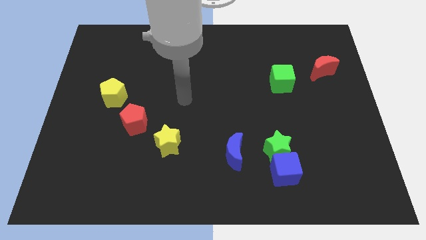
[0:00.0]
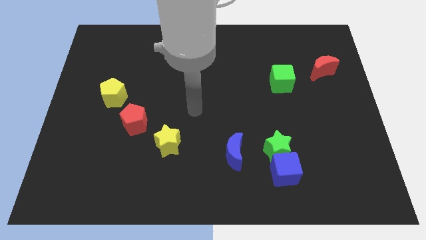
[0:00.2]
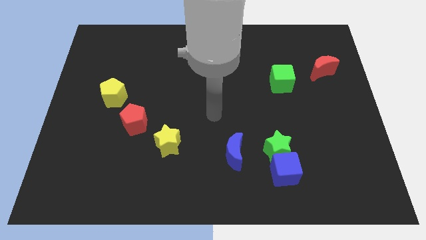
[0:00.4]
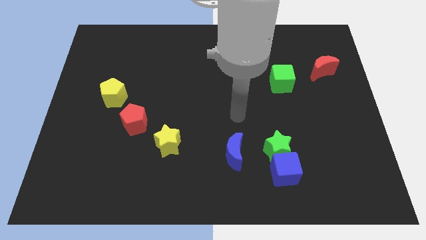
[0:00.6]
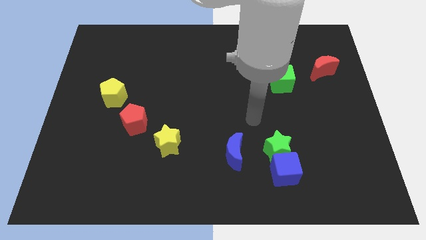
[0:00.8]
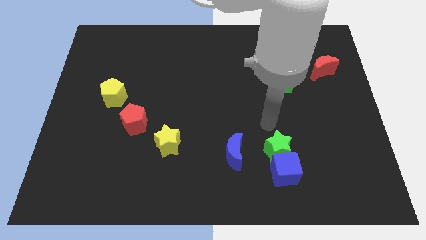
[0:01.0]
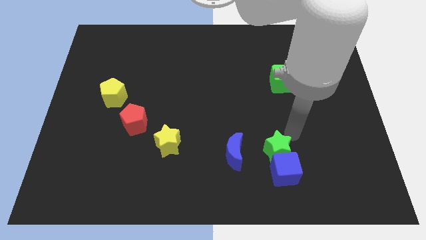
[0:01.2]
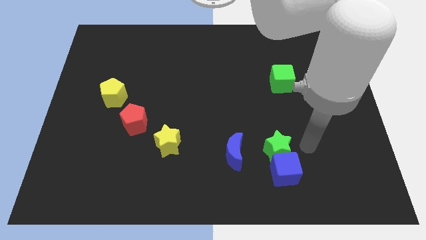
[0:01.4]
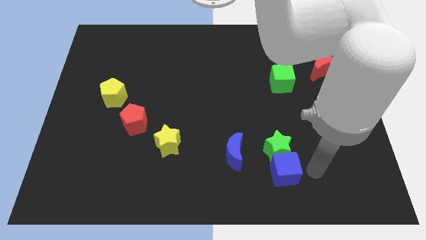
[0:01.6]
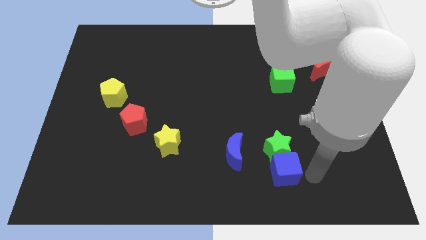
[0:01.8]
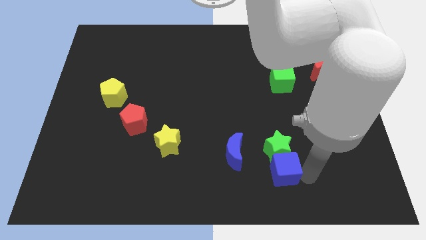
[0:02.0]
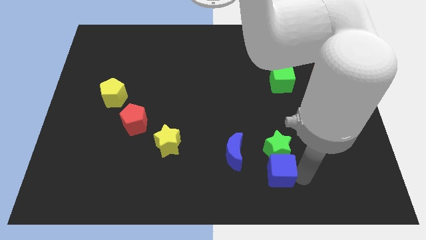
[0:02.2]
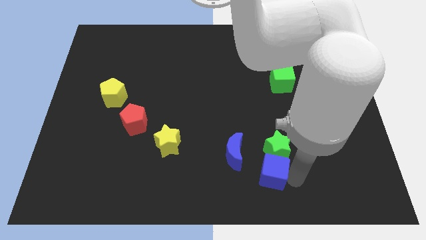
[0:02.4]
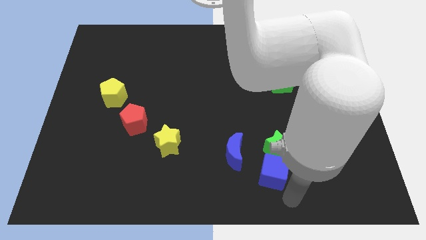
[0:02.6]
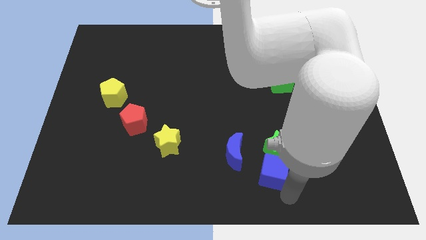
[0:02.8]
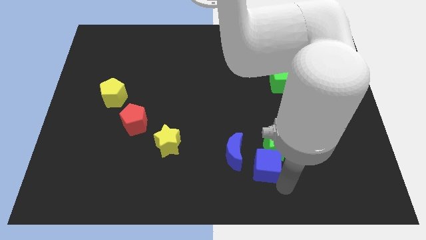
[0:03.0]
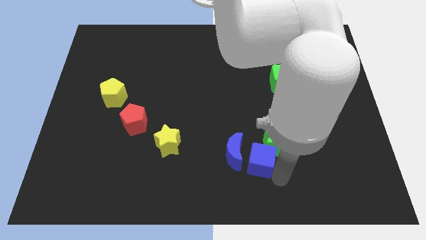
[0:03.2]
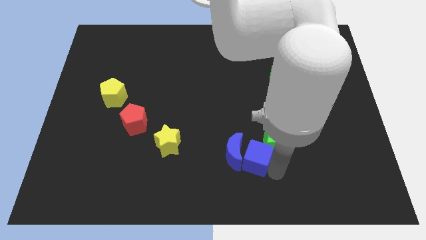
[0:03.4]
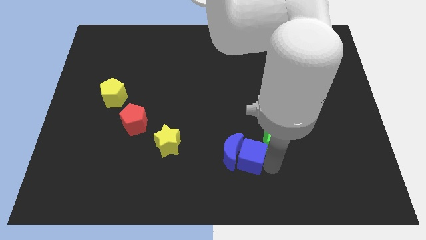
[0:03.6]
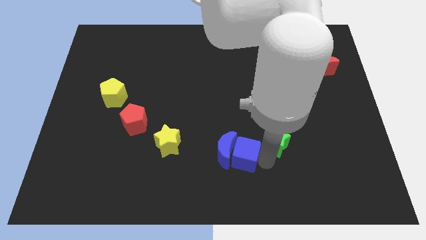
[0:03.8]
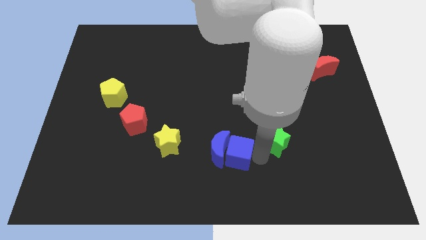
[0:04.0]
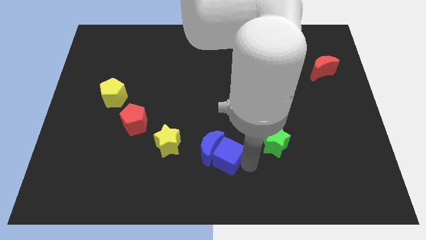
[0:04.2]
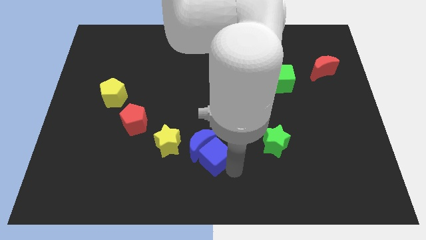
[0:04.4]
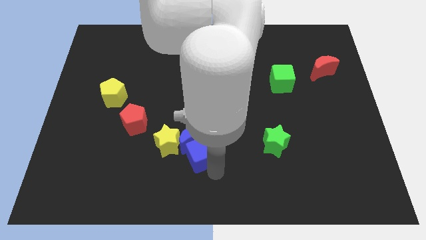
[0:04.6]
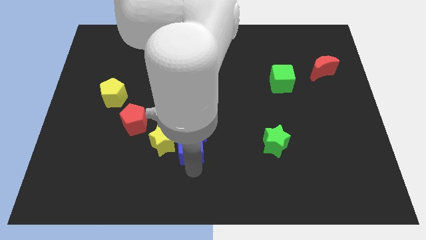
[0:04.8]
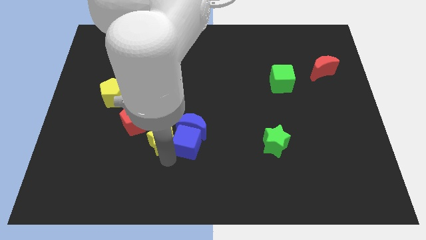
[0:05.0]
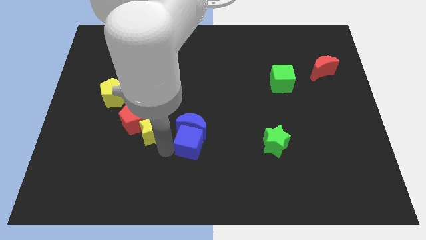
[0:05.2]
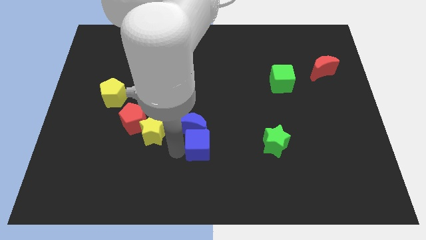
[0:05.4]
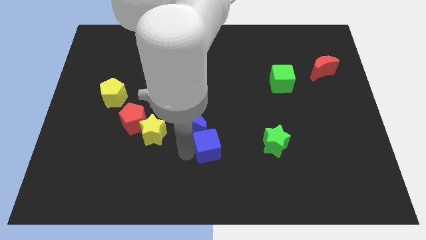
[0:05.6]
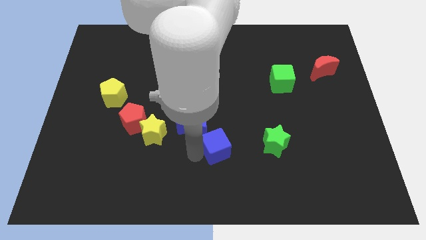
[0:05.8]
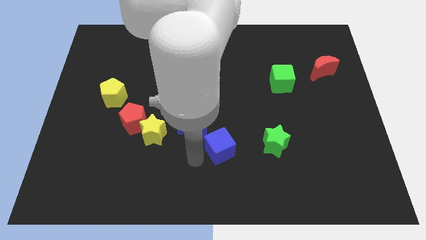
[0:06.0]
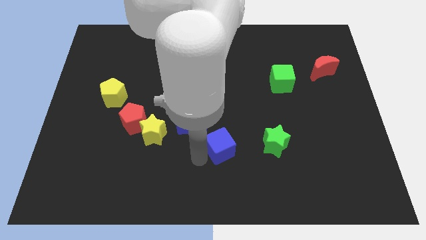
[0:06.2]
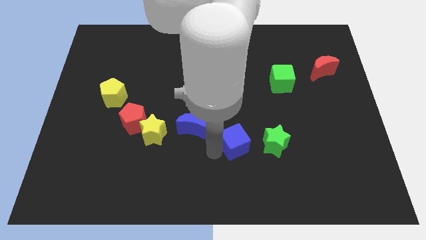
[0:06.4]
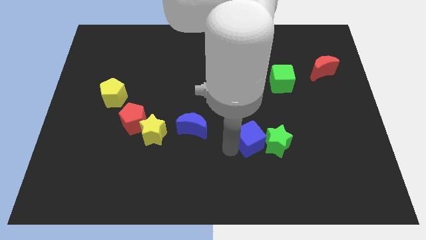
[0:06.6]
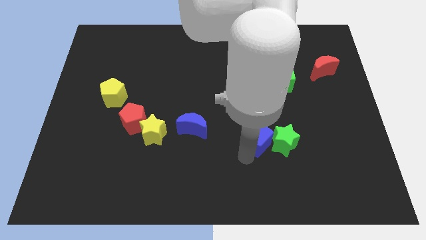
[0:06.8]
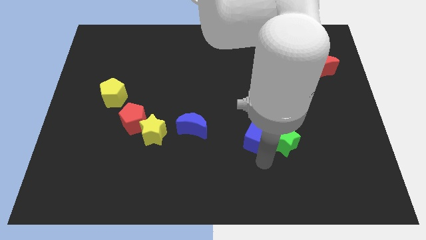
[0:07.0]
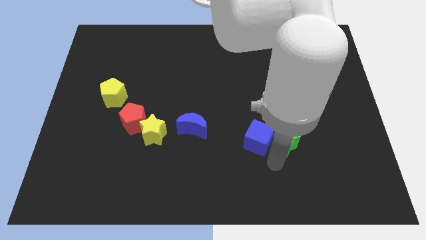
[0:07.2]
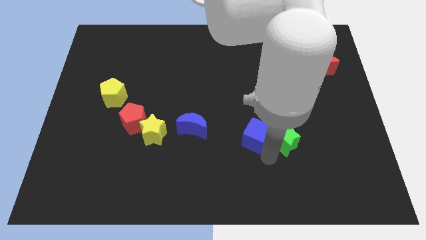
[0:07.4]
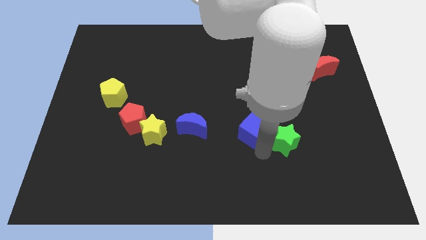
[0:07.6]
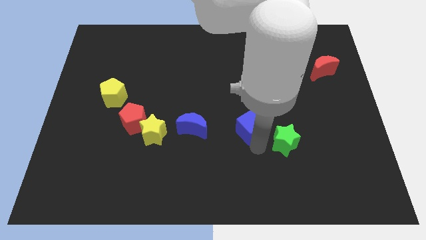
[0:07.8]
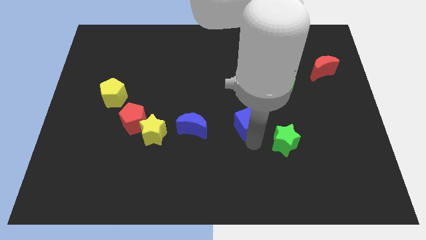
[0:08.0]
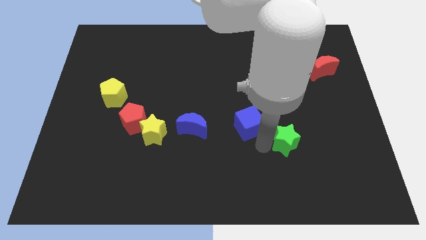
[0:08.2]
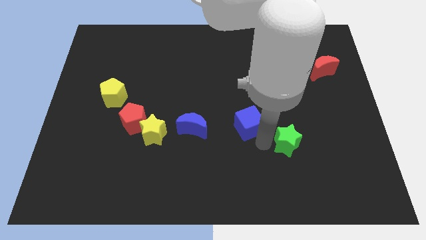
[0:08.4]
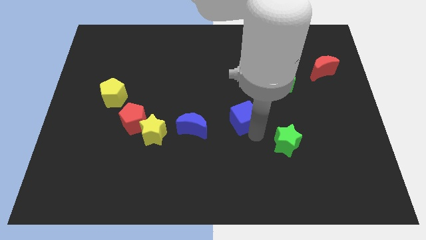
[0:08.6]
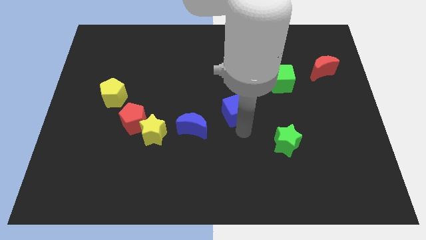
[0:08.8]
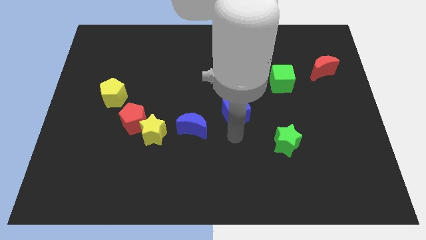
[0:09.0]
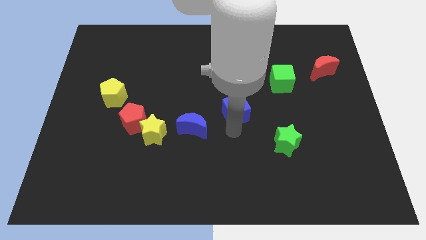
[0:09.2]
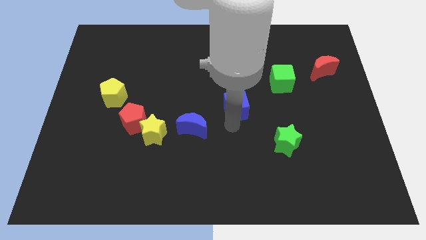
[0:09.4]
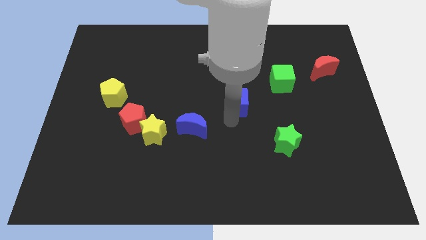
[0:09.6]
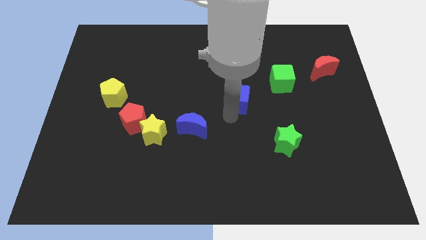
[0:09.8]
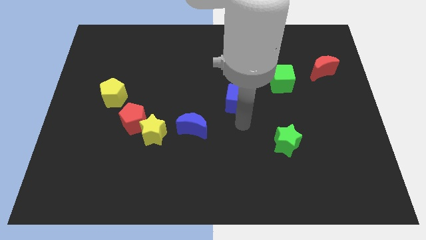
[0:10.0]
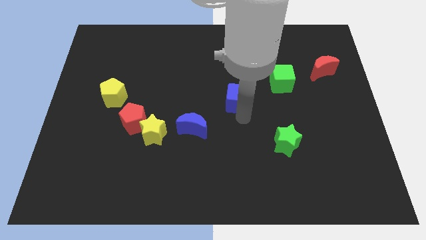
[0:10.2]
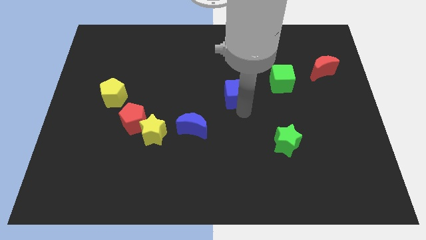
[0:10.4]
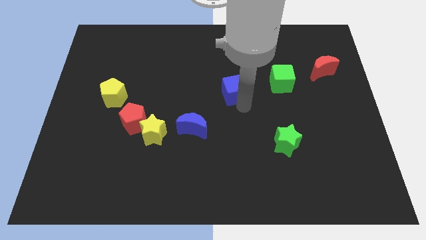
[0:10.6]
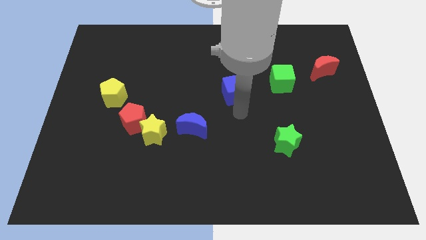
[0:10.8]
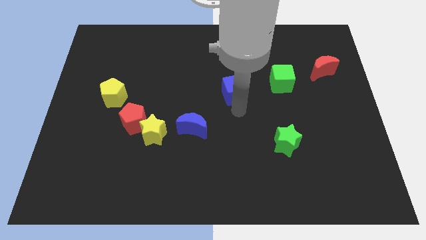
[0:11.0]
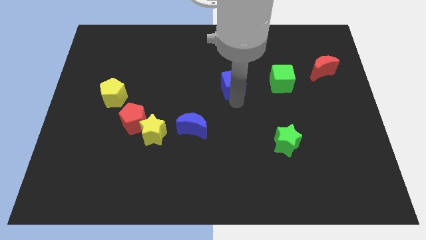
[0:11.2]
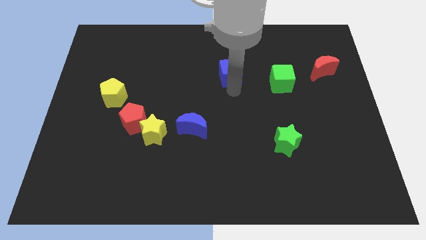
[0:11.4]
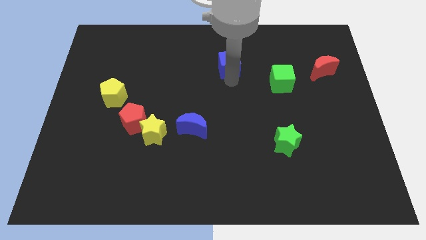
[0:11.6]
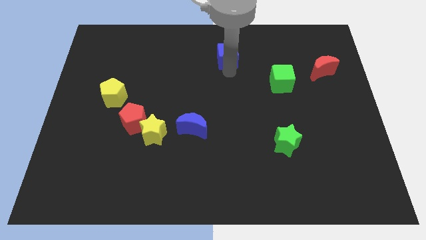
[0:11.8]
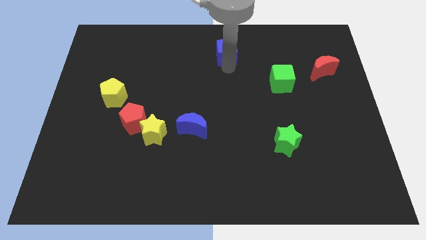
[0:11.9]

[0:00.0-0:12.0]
put the blue cube to the top side
